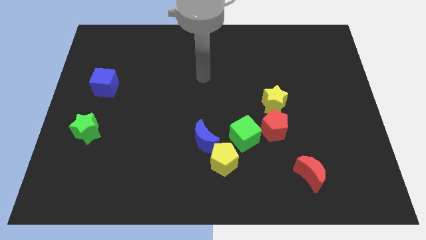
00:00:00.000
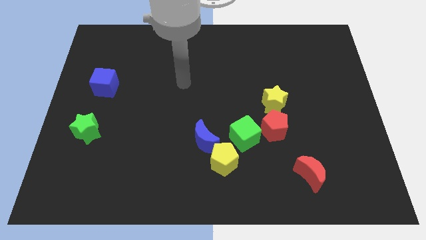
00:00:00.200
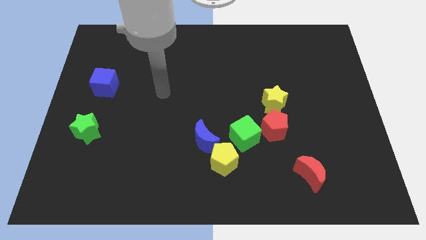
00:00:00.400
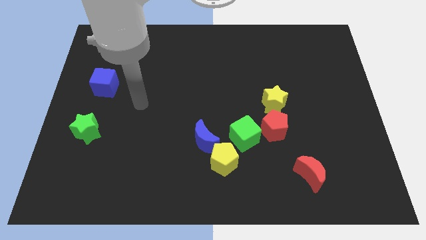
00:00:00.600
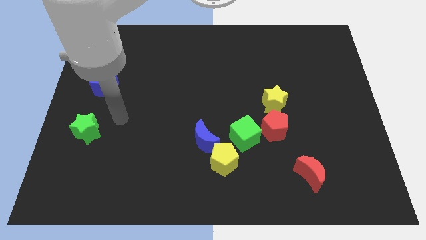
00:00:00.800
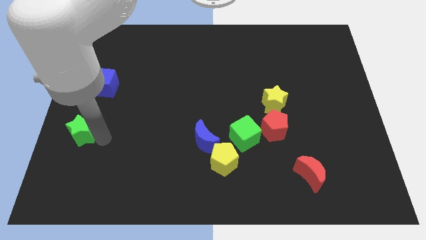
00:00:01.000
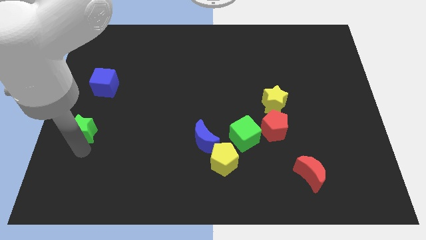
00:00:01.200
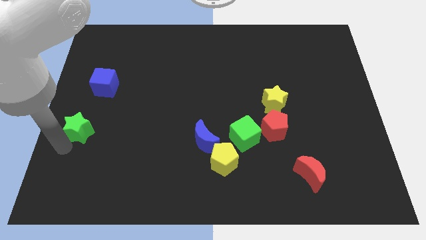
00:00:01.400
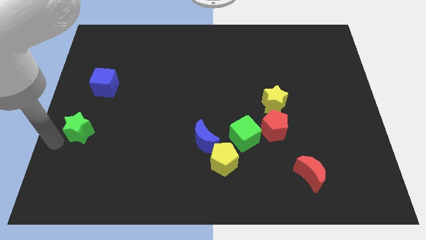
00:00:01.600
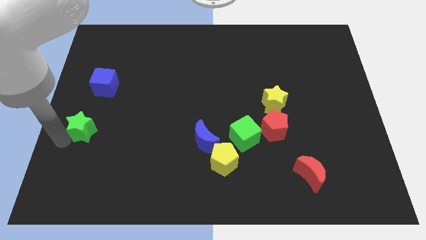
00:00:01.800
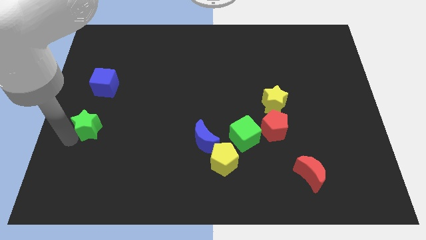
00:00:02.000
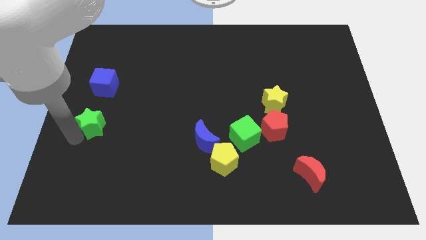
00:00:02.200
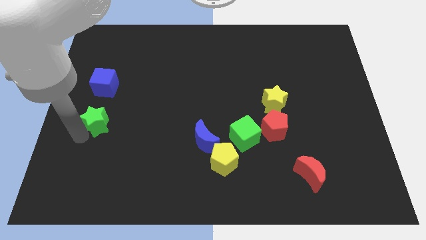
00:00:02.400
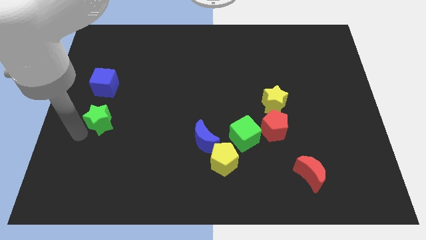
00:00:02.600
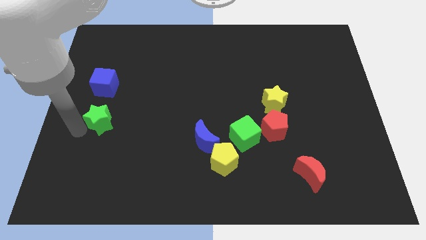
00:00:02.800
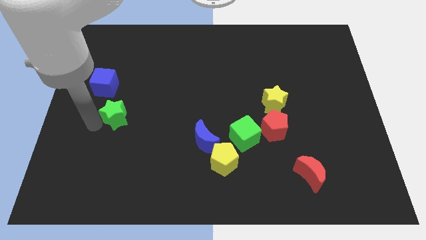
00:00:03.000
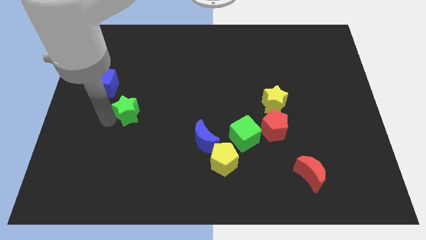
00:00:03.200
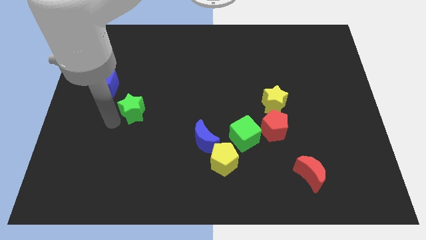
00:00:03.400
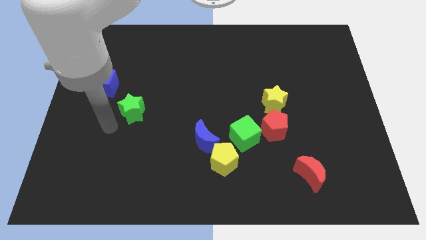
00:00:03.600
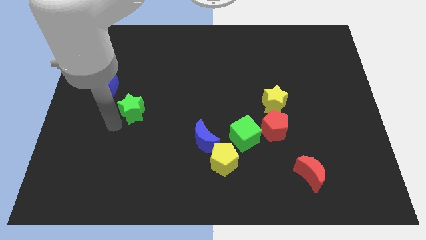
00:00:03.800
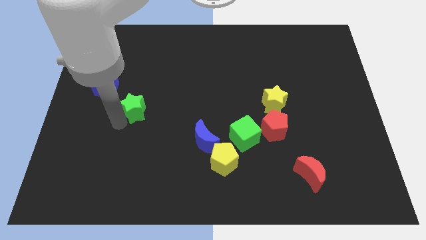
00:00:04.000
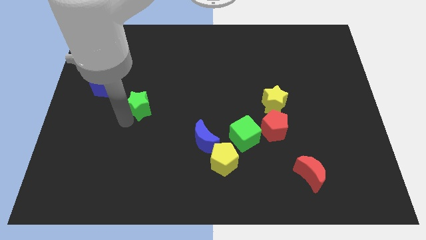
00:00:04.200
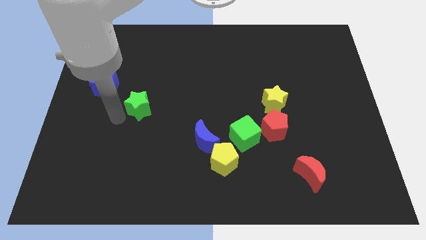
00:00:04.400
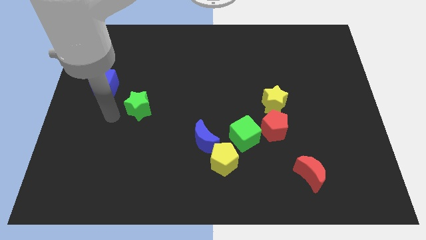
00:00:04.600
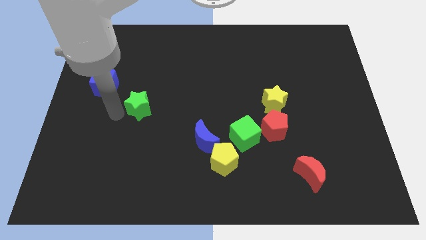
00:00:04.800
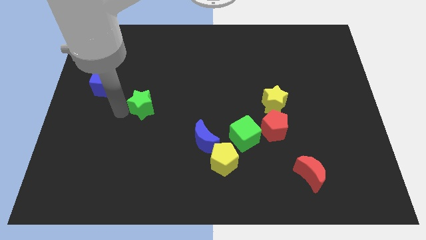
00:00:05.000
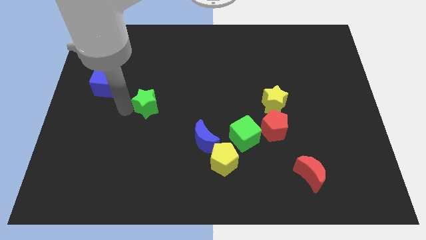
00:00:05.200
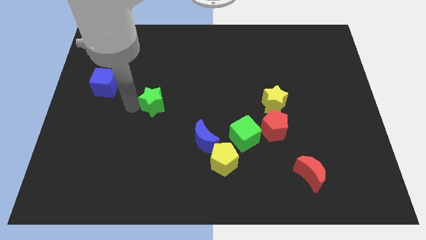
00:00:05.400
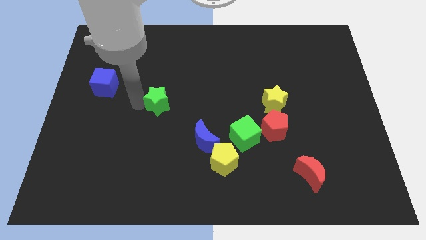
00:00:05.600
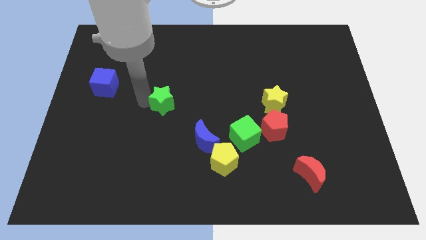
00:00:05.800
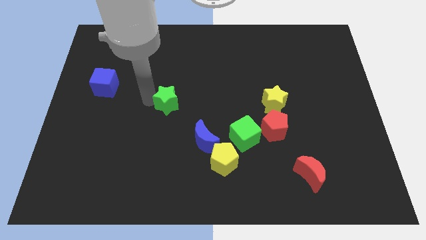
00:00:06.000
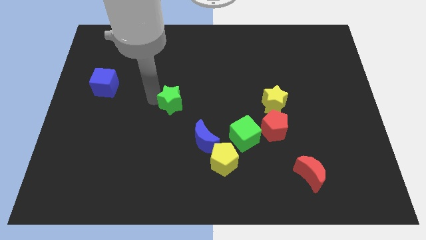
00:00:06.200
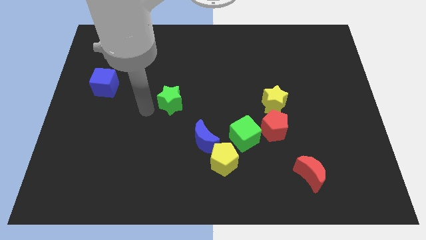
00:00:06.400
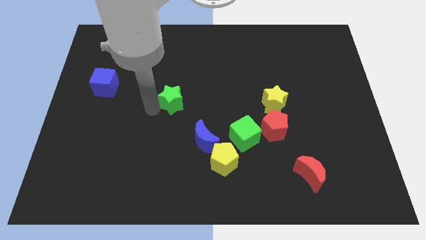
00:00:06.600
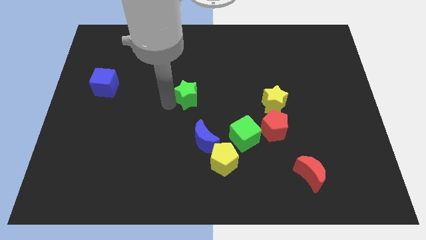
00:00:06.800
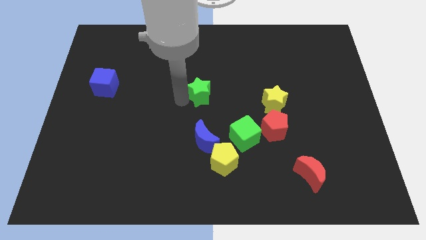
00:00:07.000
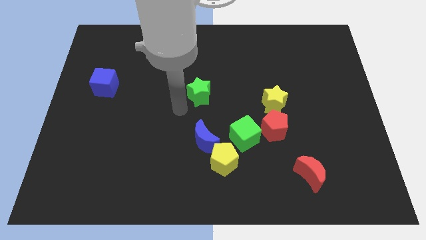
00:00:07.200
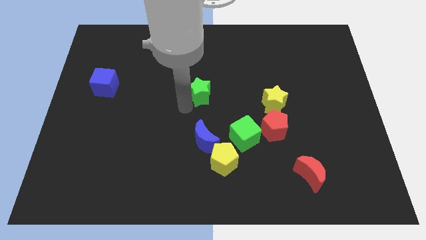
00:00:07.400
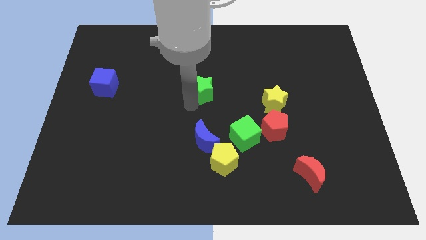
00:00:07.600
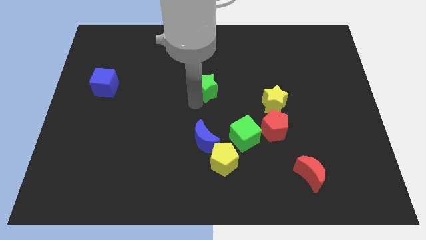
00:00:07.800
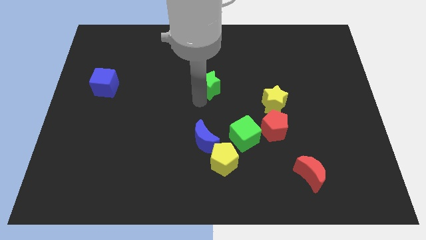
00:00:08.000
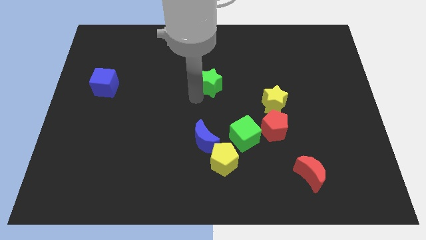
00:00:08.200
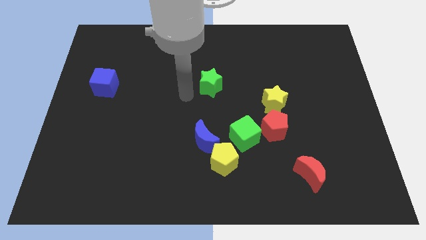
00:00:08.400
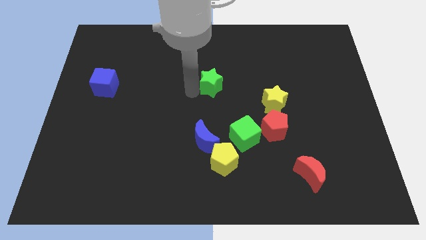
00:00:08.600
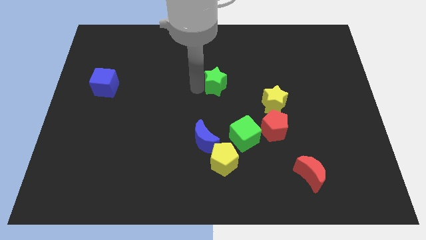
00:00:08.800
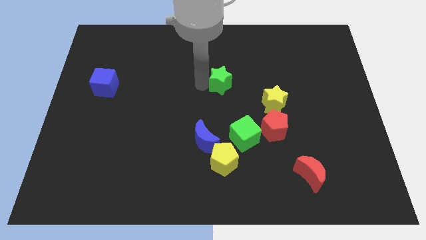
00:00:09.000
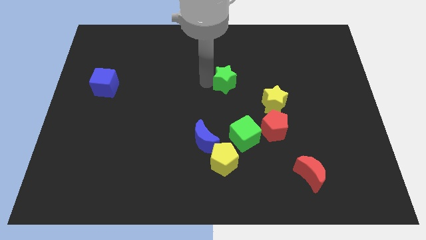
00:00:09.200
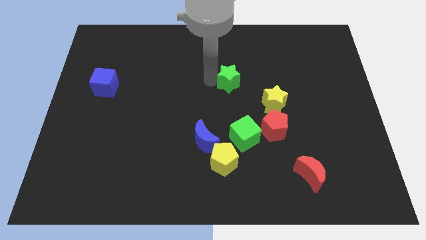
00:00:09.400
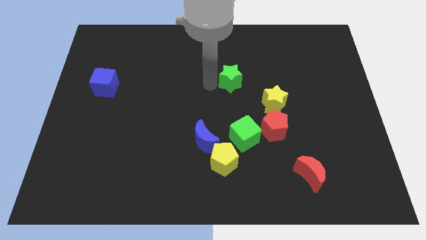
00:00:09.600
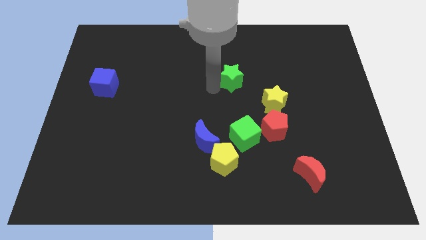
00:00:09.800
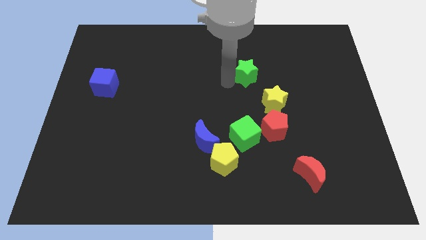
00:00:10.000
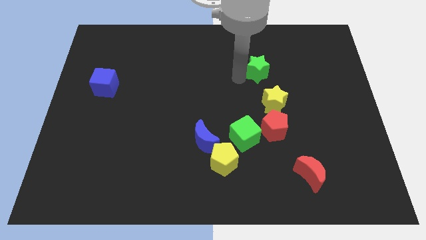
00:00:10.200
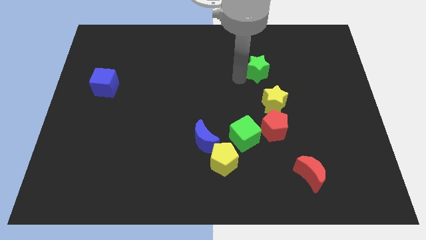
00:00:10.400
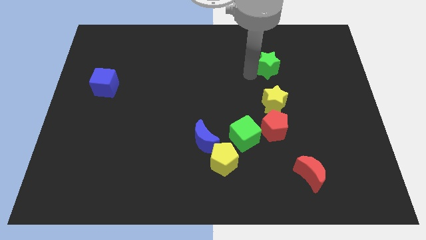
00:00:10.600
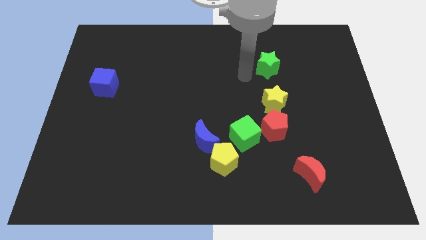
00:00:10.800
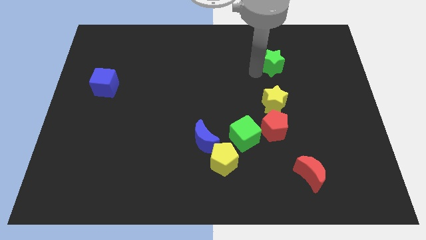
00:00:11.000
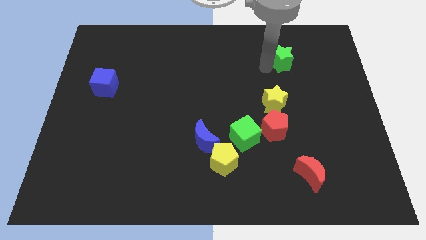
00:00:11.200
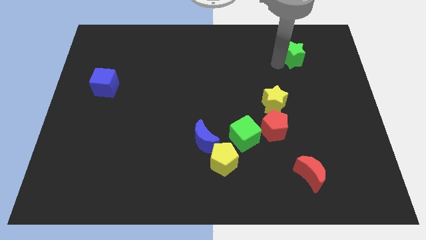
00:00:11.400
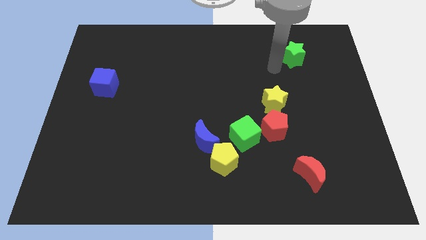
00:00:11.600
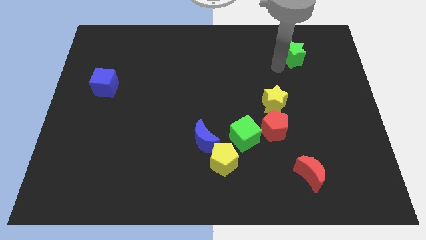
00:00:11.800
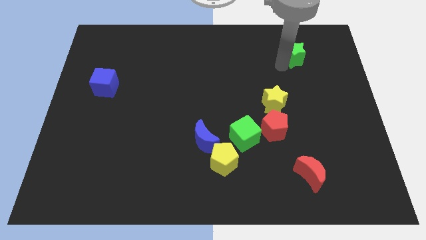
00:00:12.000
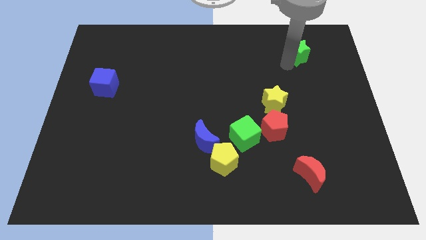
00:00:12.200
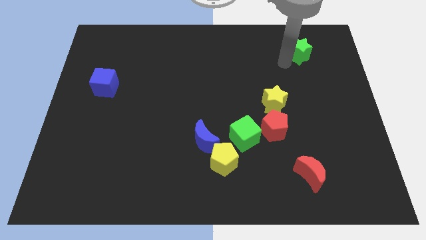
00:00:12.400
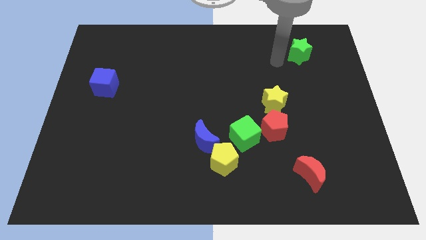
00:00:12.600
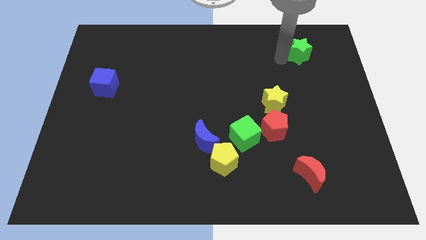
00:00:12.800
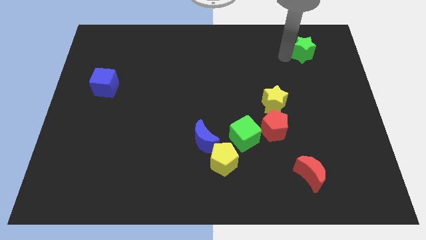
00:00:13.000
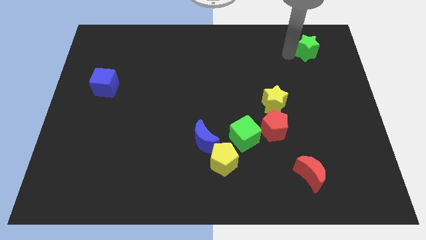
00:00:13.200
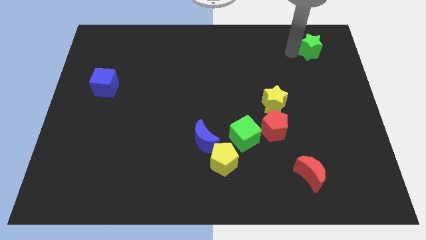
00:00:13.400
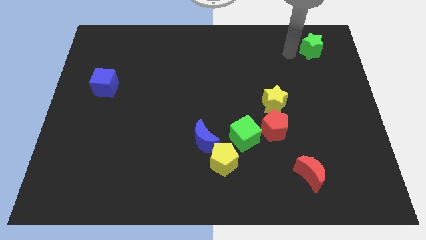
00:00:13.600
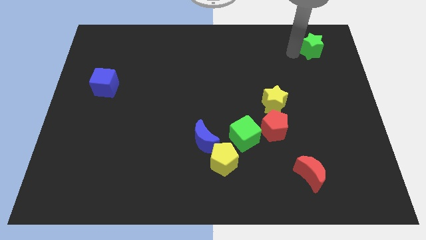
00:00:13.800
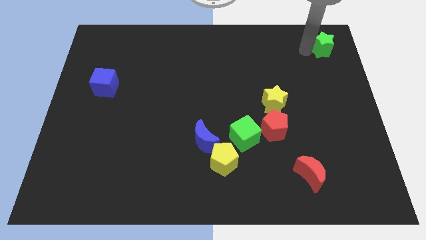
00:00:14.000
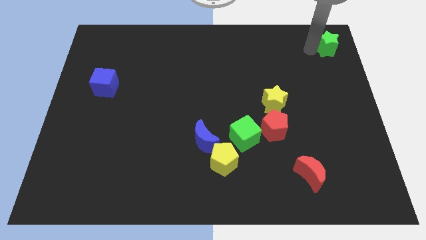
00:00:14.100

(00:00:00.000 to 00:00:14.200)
push the green star to the top right of the board
